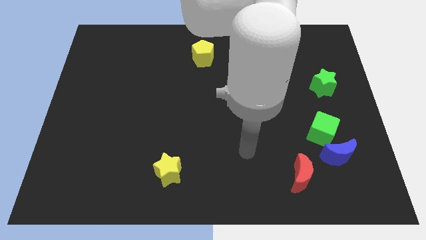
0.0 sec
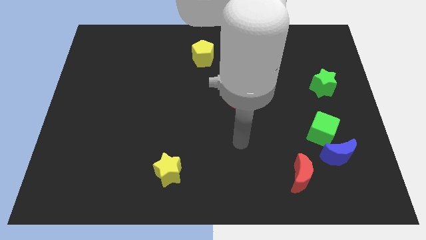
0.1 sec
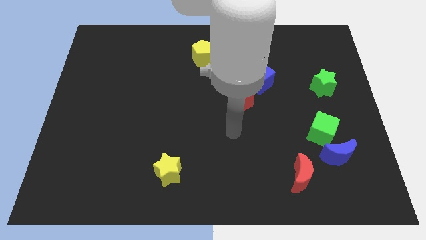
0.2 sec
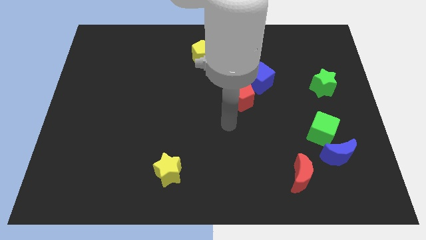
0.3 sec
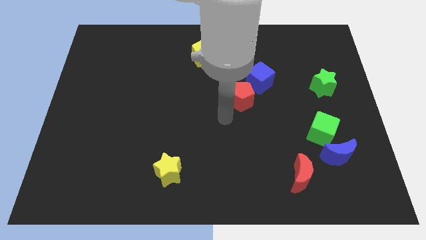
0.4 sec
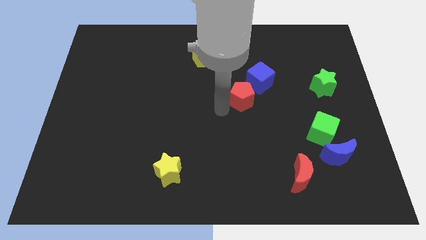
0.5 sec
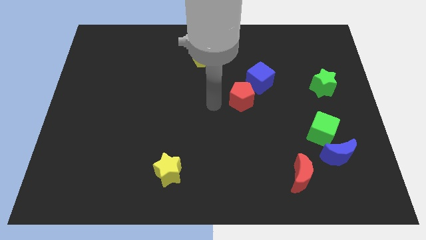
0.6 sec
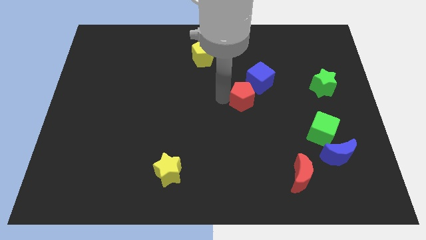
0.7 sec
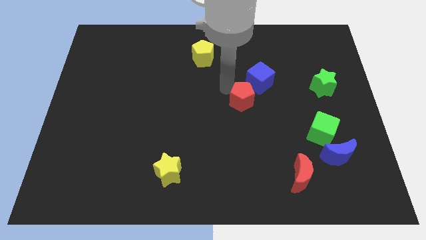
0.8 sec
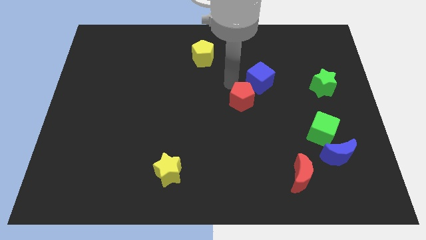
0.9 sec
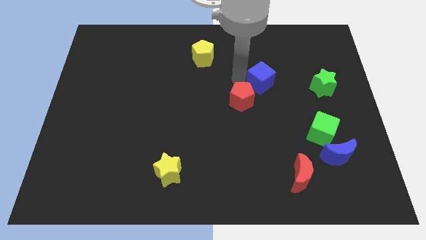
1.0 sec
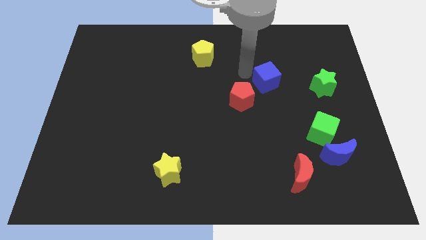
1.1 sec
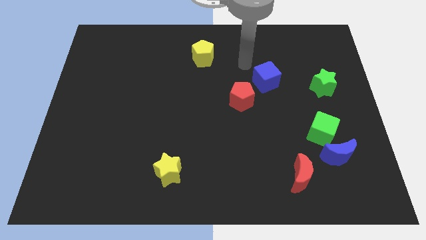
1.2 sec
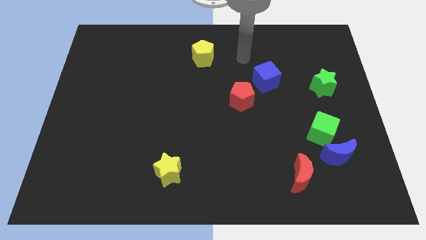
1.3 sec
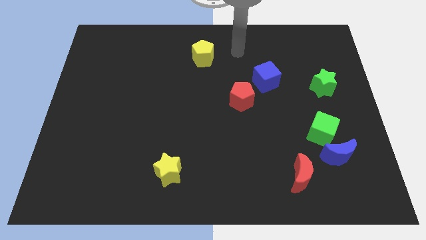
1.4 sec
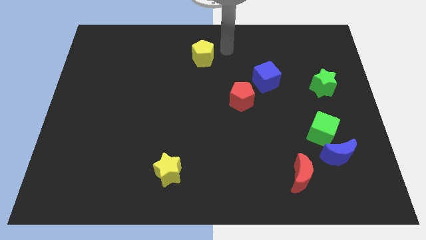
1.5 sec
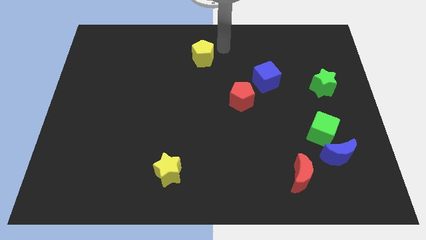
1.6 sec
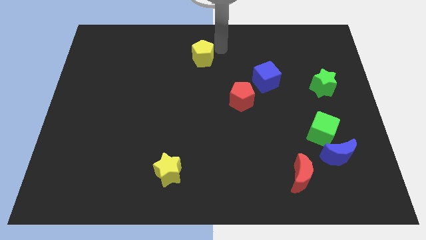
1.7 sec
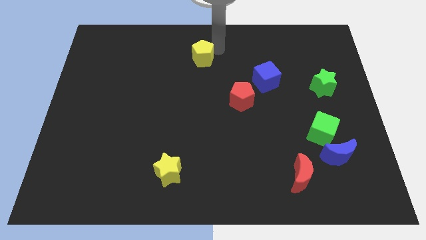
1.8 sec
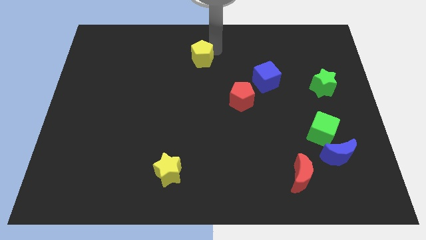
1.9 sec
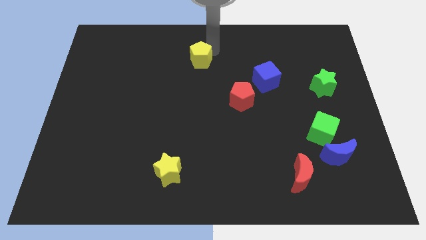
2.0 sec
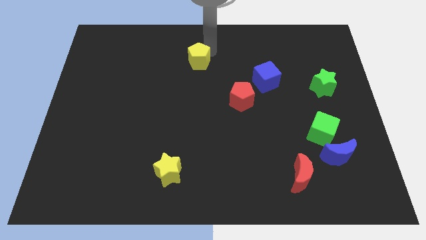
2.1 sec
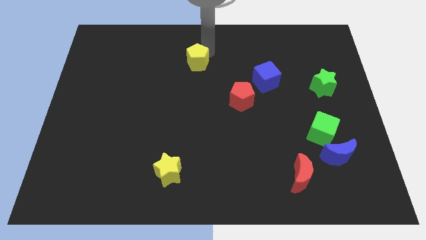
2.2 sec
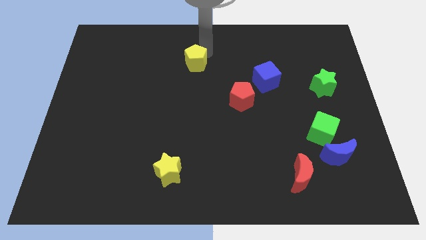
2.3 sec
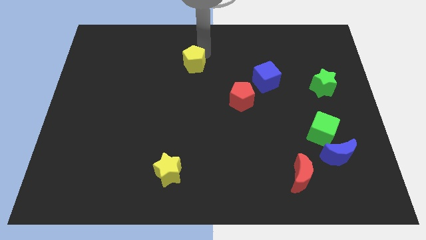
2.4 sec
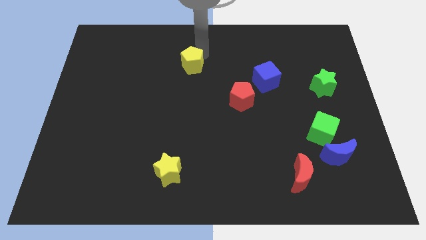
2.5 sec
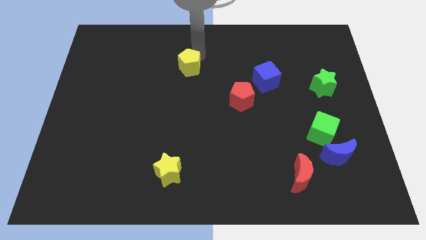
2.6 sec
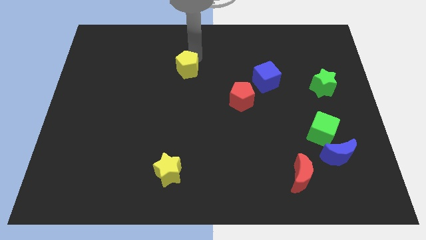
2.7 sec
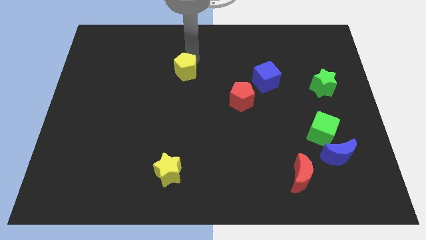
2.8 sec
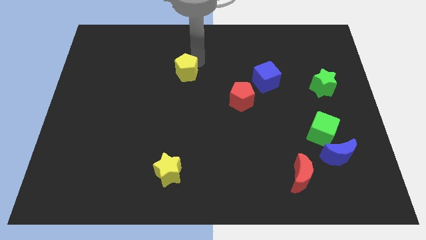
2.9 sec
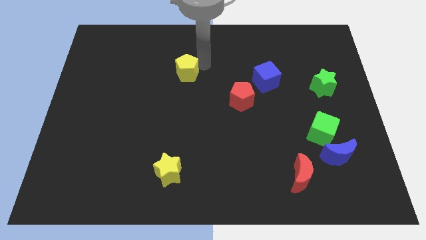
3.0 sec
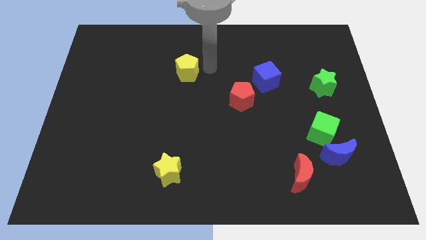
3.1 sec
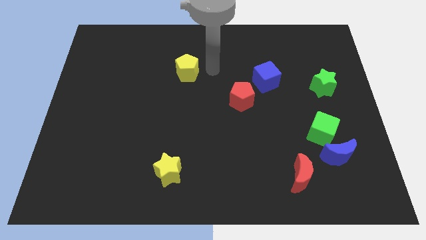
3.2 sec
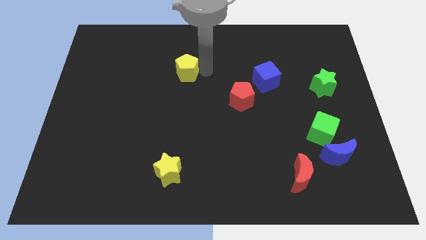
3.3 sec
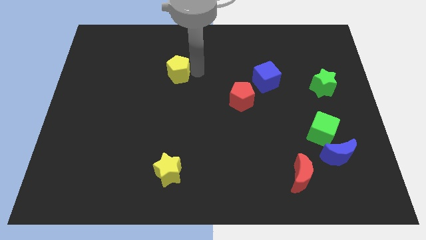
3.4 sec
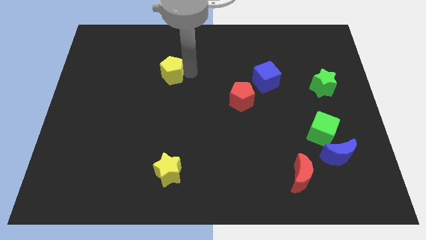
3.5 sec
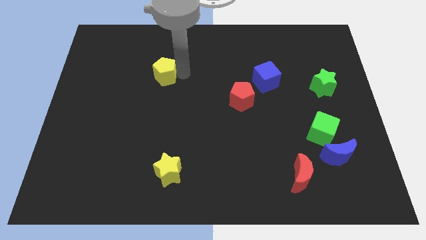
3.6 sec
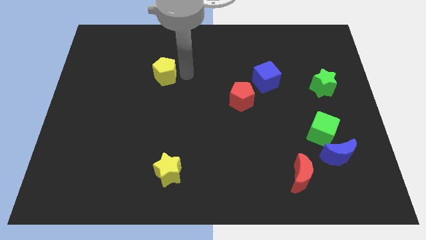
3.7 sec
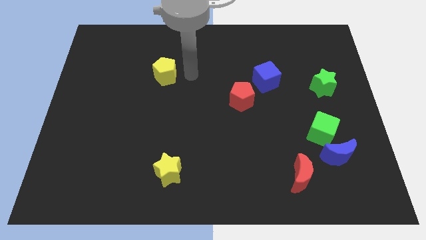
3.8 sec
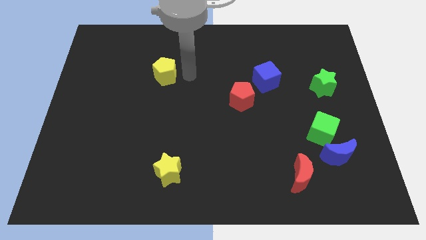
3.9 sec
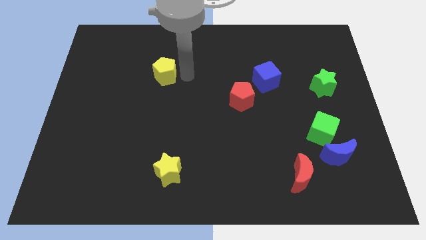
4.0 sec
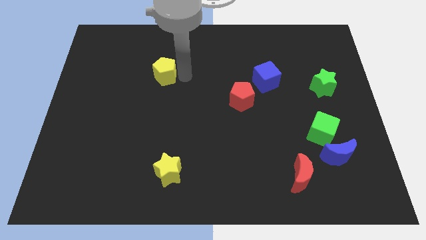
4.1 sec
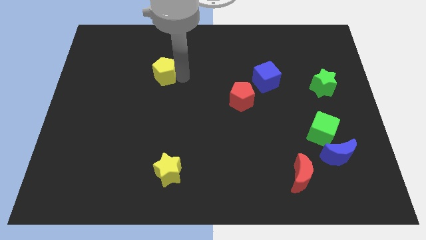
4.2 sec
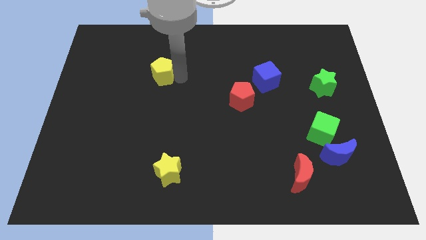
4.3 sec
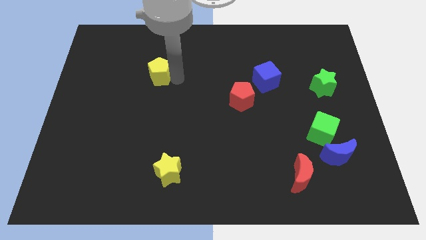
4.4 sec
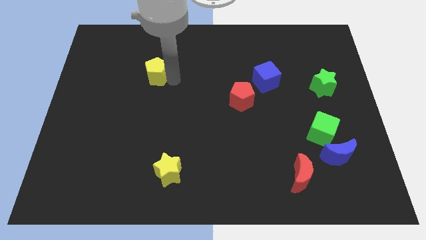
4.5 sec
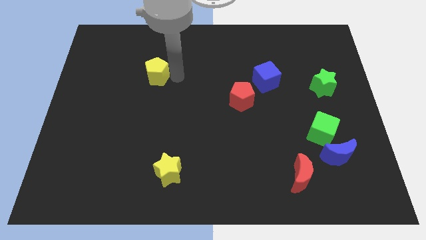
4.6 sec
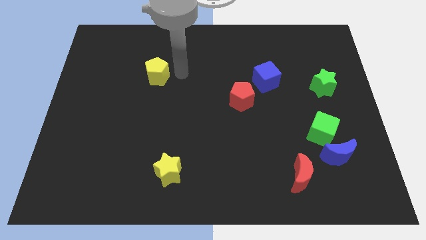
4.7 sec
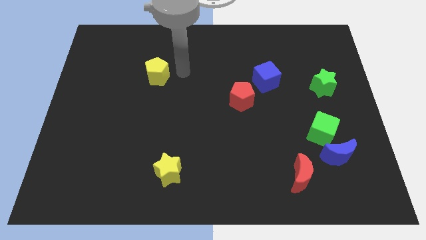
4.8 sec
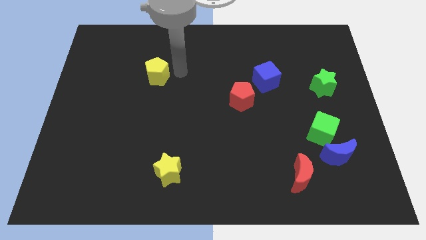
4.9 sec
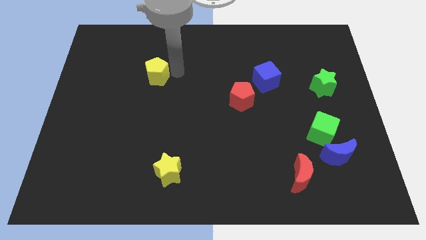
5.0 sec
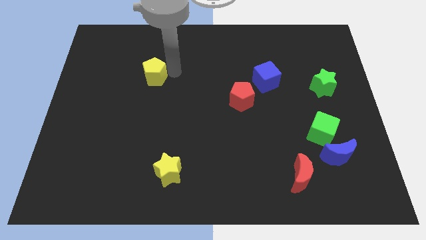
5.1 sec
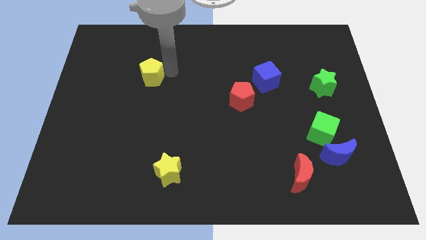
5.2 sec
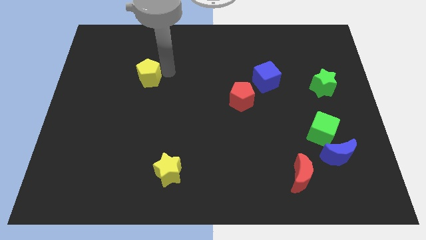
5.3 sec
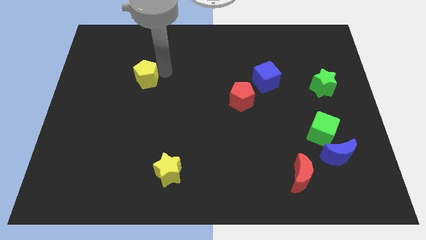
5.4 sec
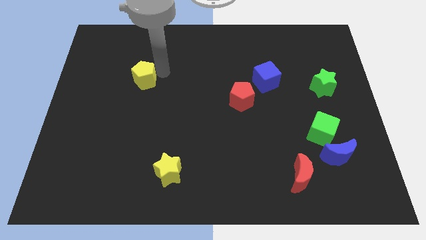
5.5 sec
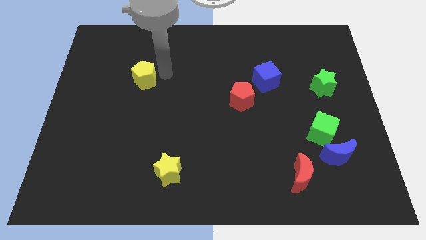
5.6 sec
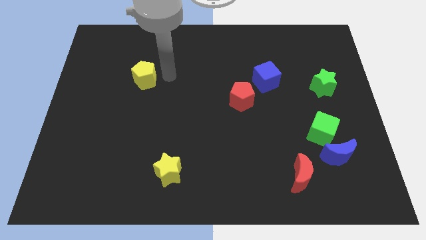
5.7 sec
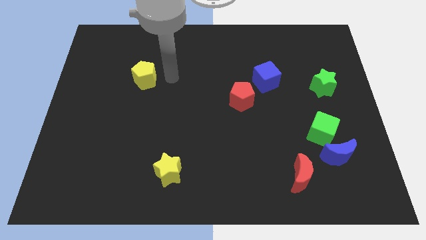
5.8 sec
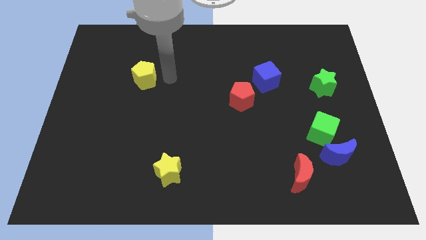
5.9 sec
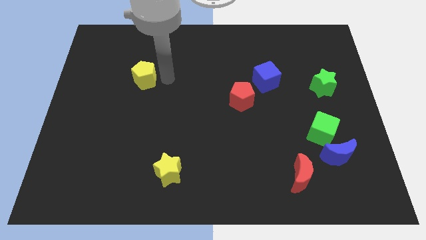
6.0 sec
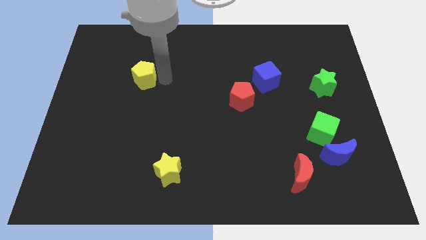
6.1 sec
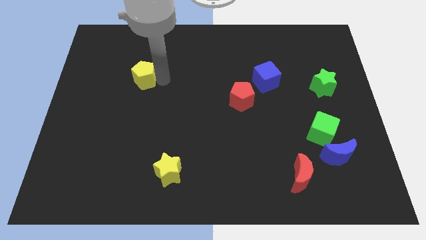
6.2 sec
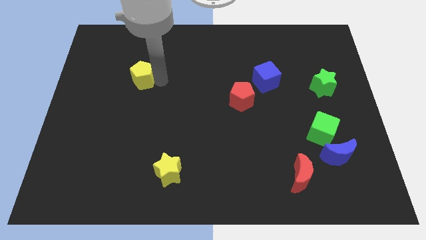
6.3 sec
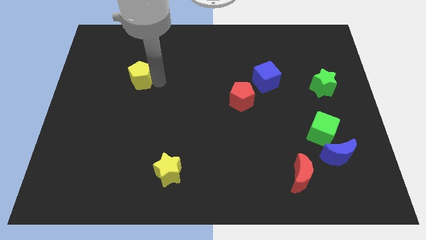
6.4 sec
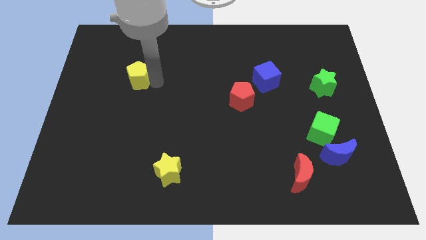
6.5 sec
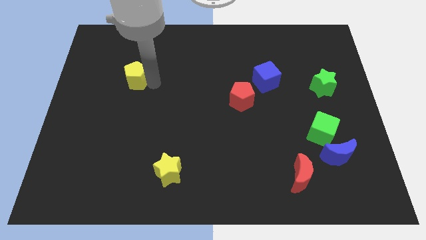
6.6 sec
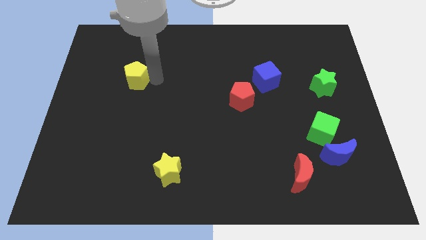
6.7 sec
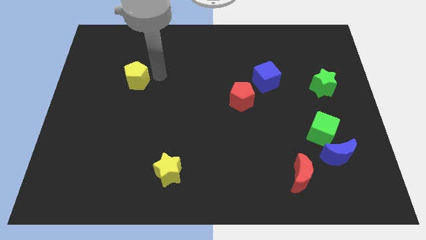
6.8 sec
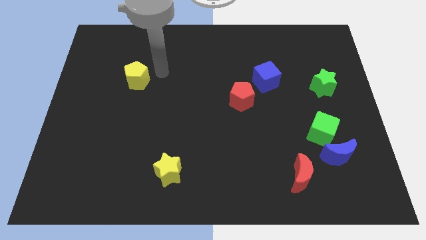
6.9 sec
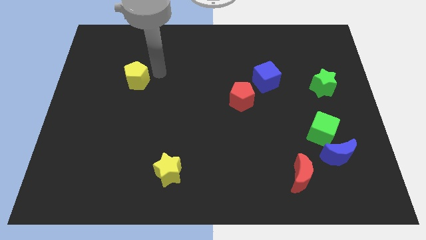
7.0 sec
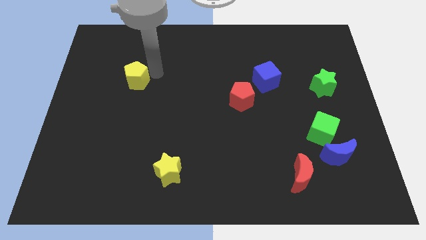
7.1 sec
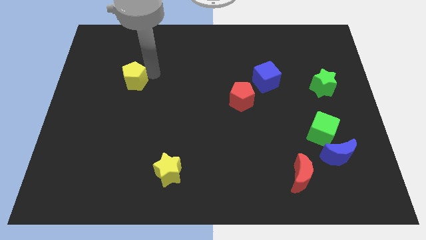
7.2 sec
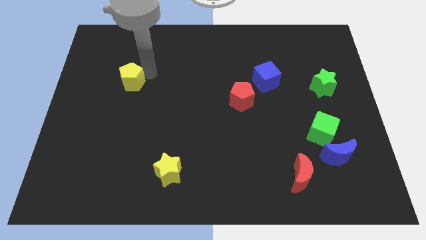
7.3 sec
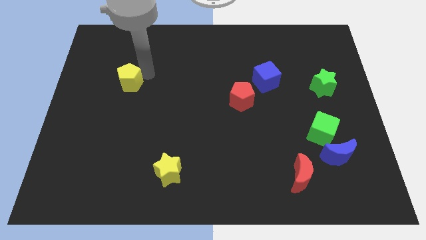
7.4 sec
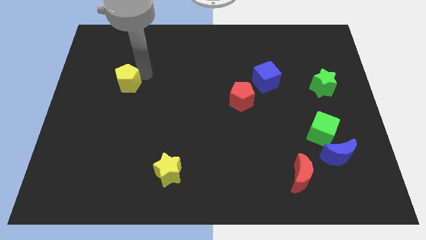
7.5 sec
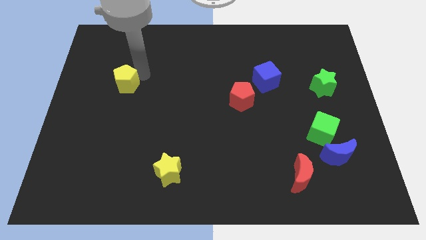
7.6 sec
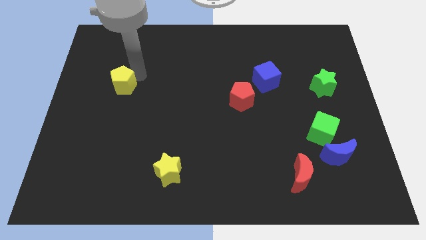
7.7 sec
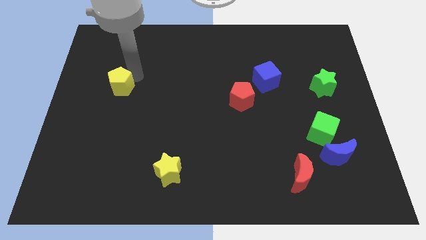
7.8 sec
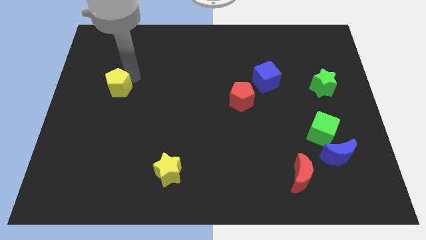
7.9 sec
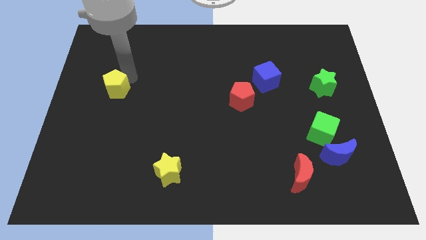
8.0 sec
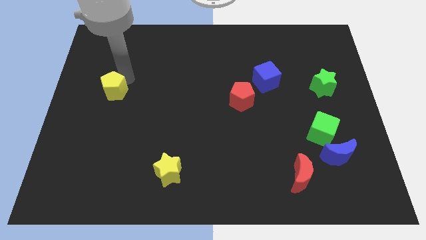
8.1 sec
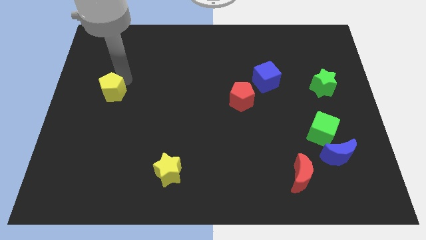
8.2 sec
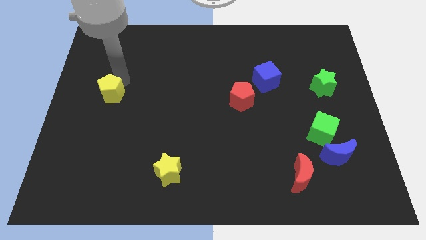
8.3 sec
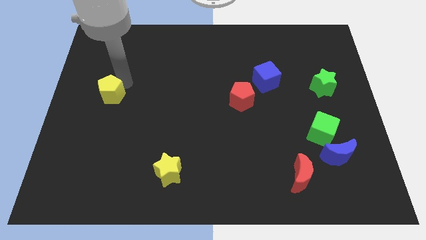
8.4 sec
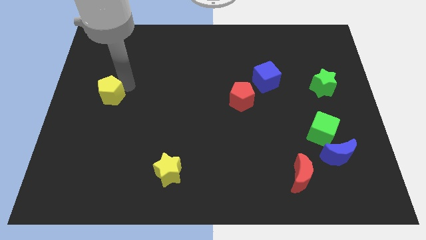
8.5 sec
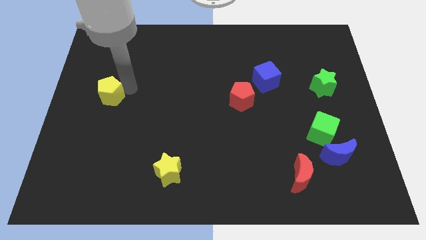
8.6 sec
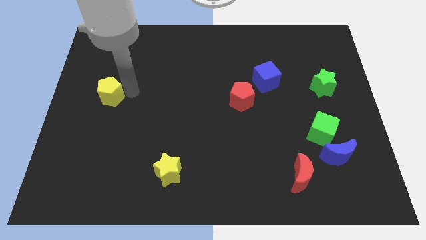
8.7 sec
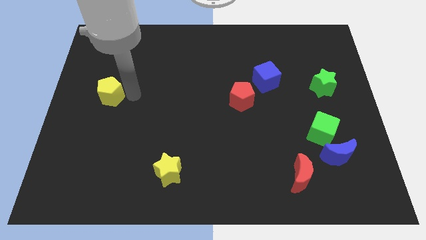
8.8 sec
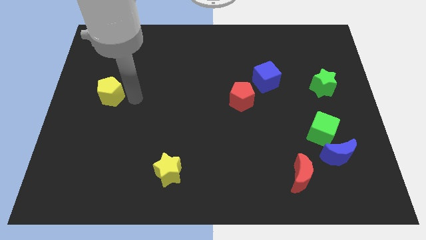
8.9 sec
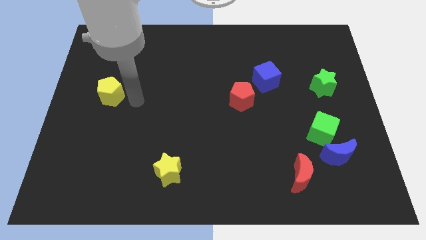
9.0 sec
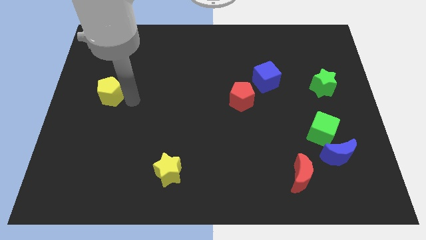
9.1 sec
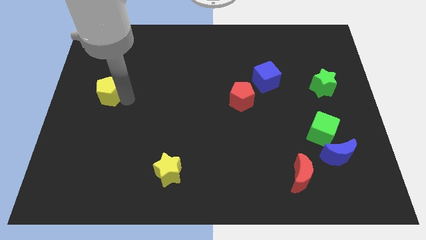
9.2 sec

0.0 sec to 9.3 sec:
push the yellow pentagon to the left side of the board
